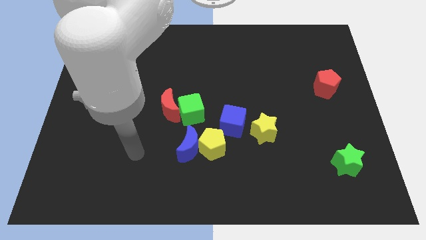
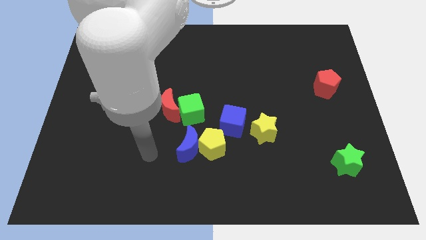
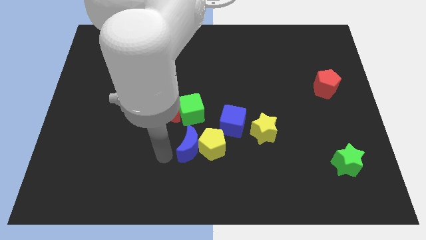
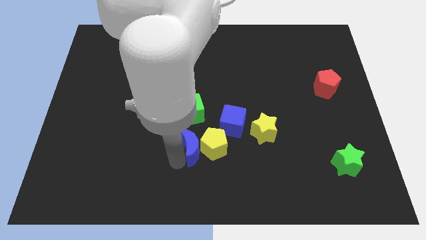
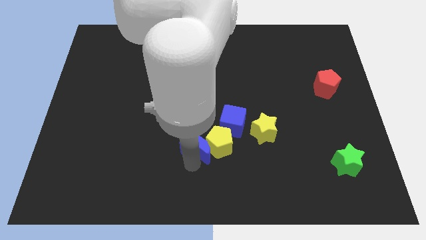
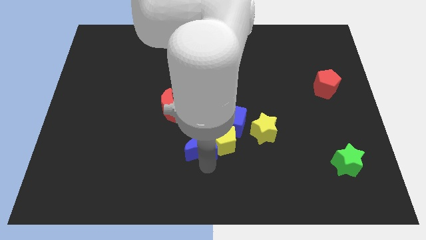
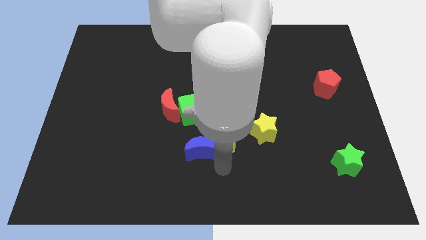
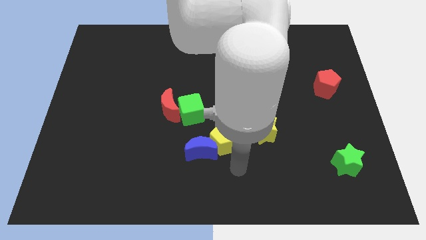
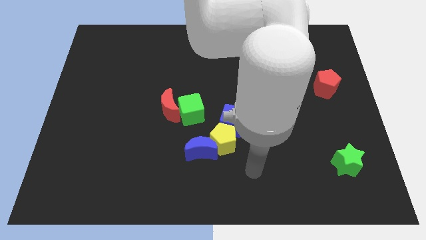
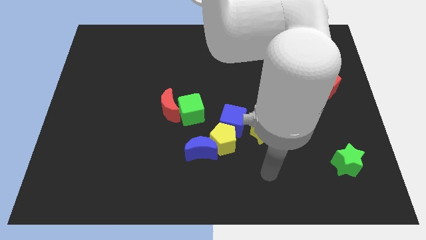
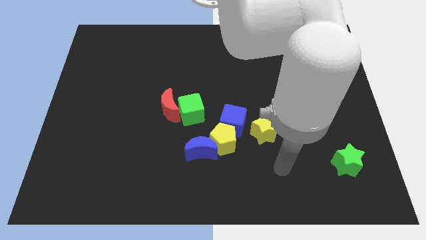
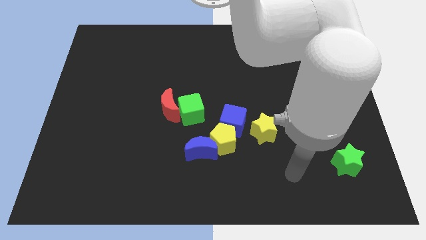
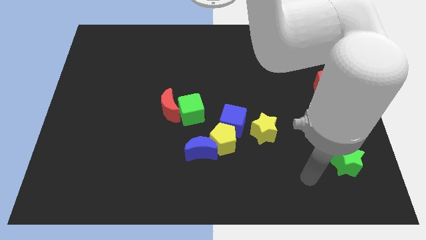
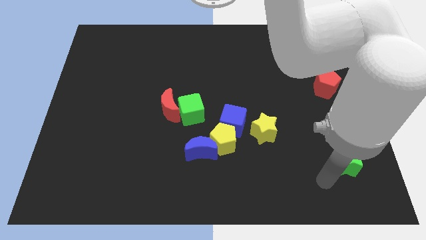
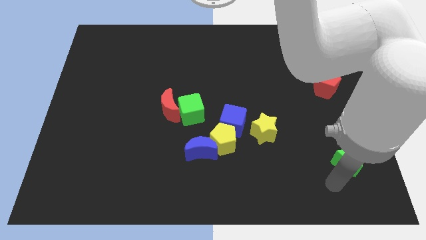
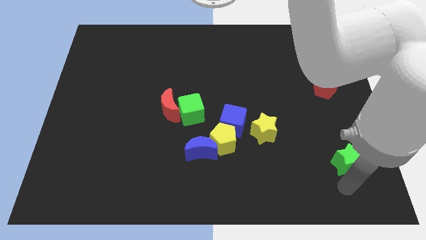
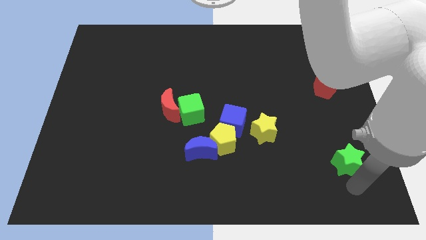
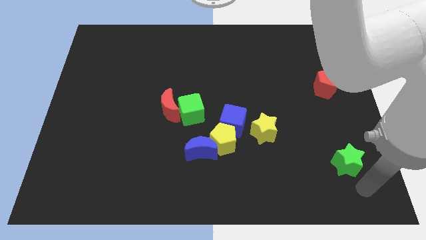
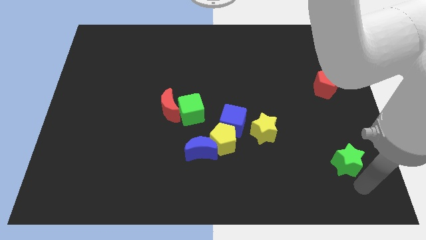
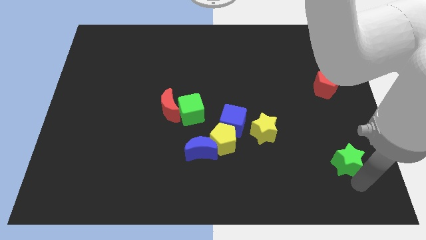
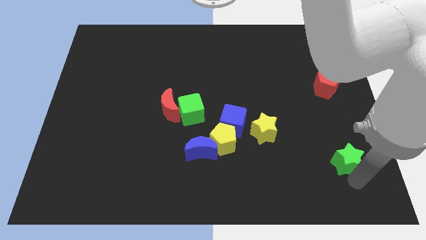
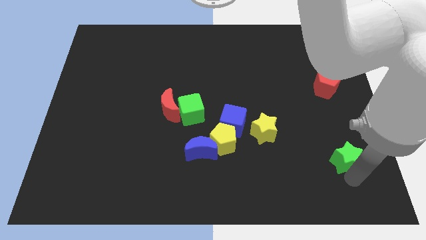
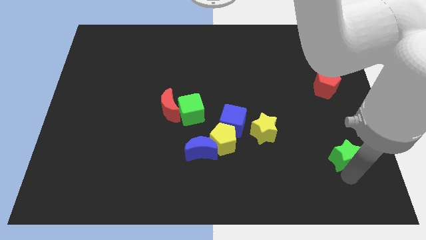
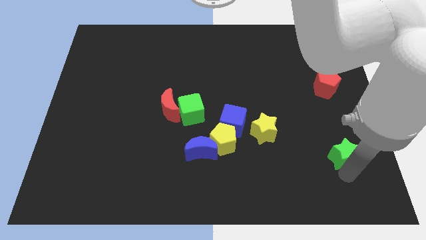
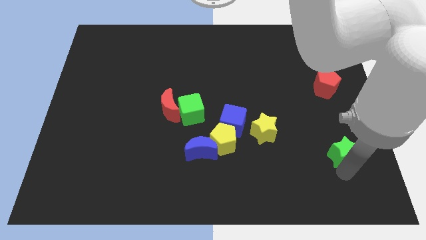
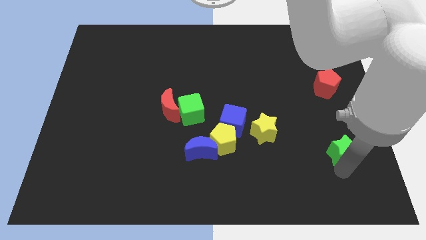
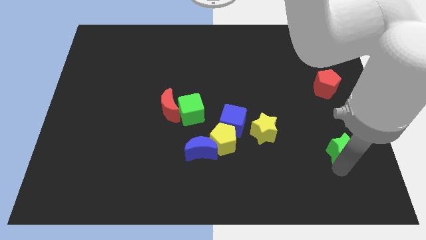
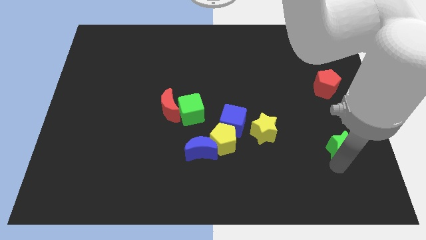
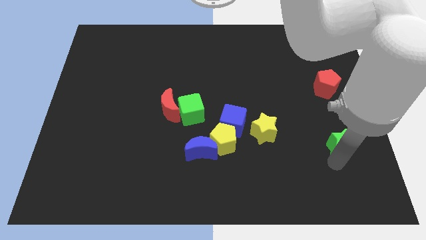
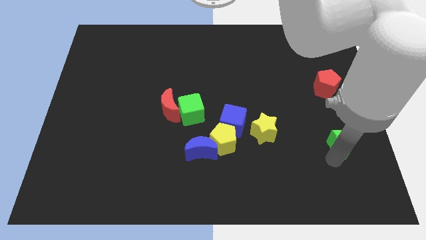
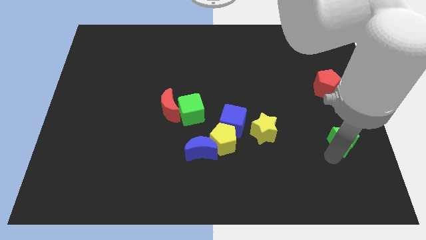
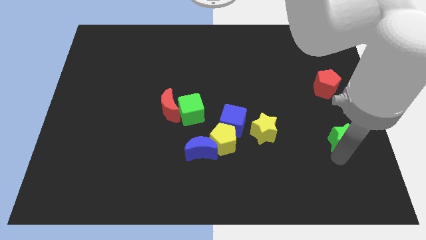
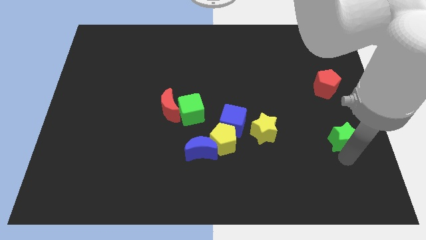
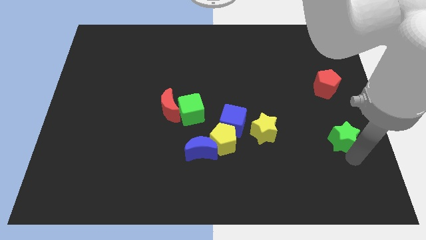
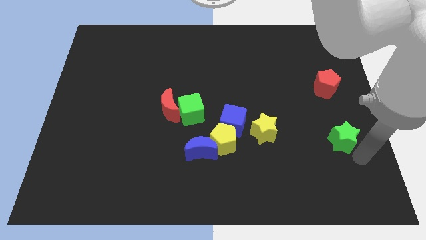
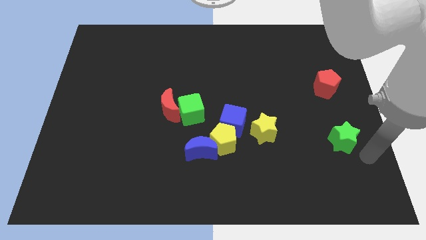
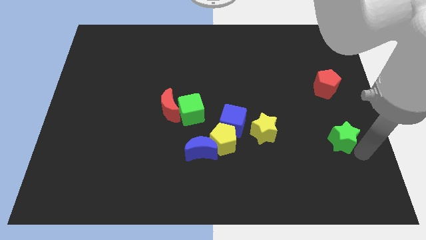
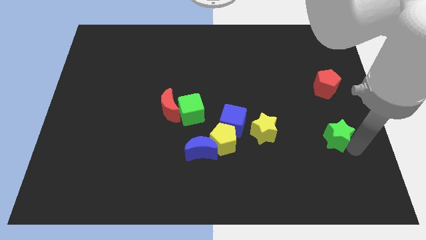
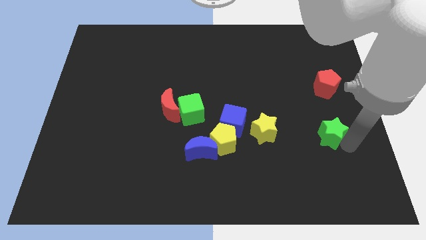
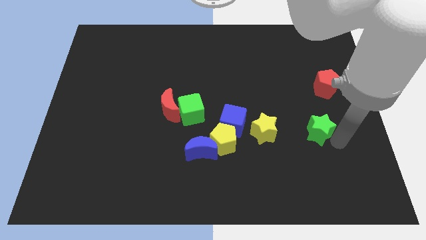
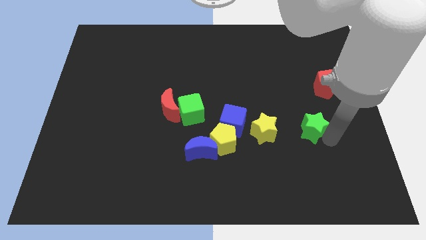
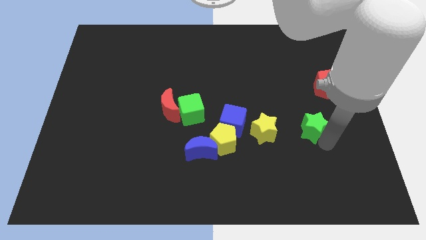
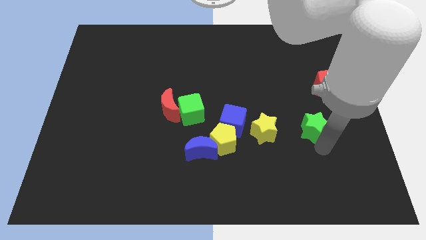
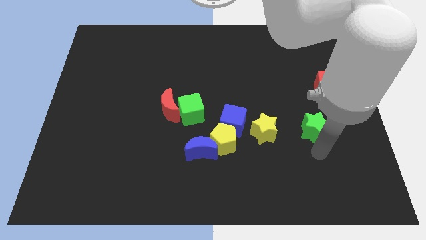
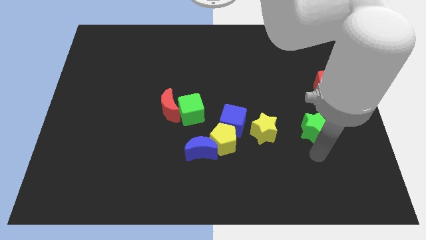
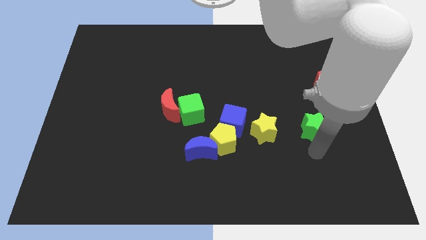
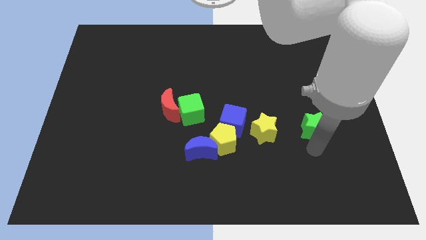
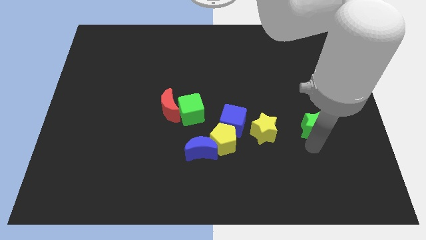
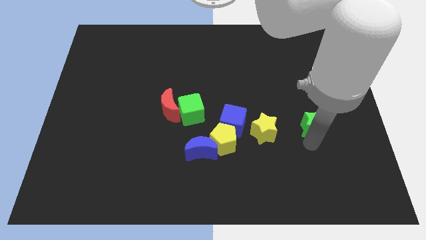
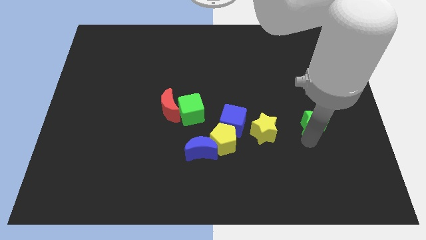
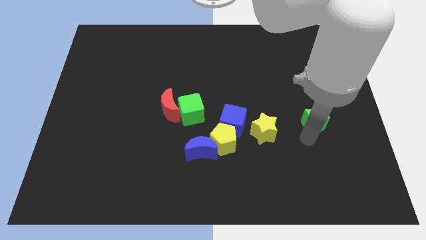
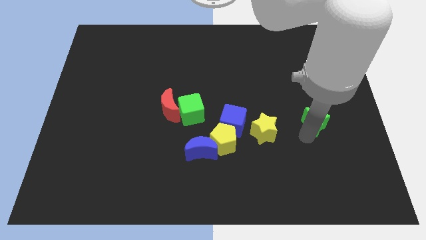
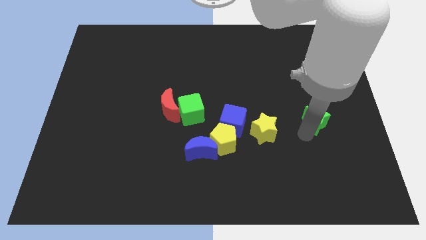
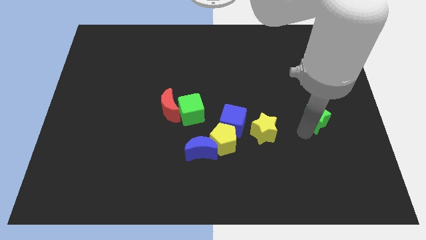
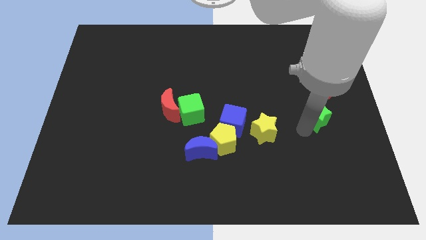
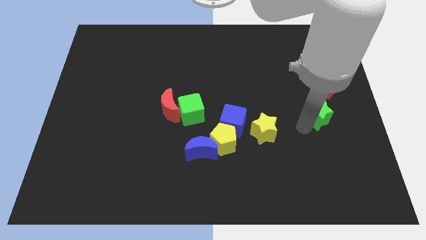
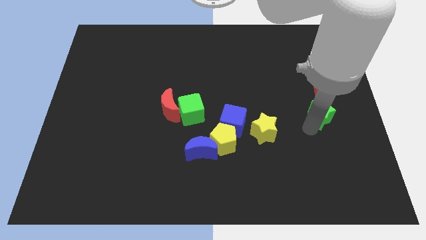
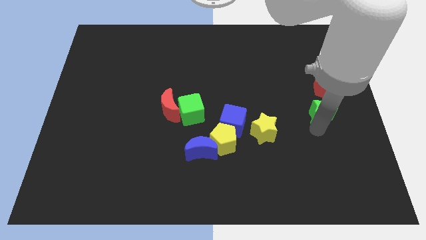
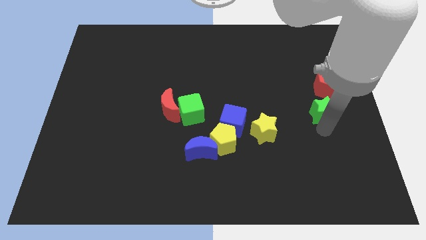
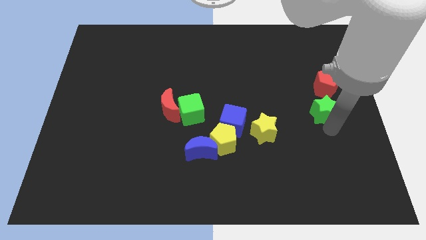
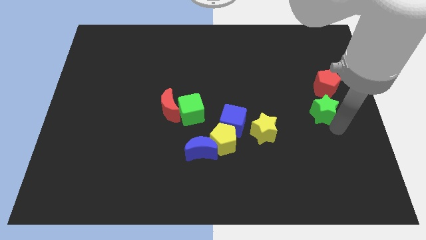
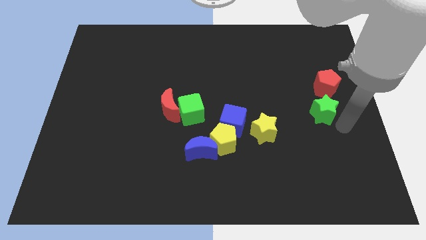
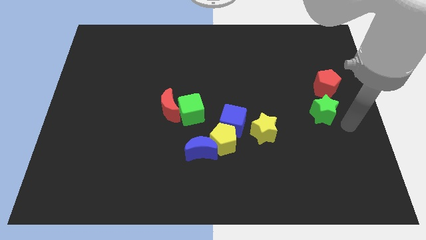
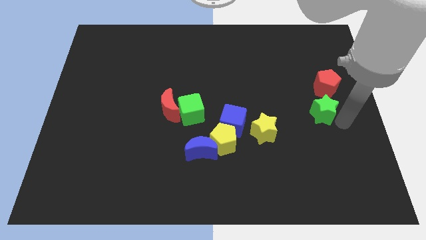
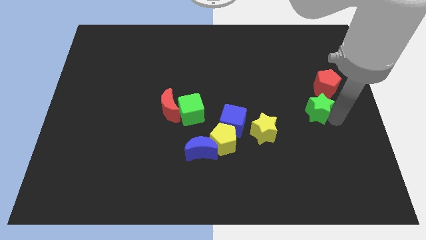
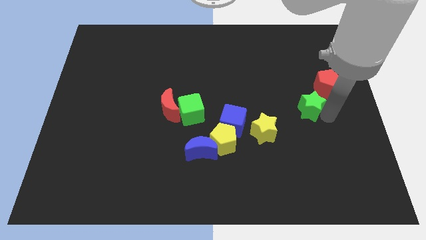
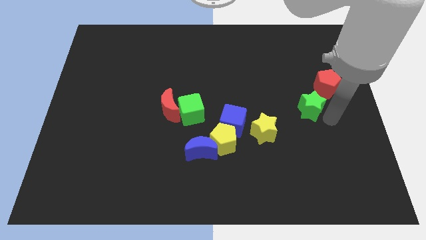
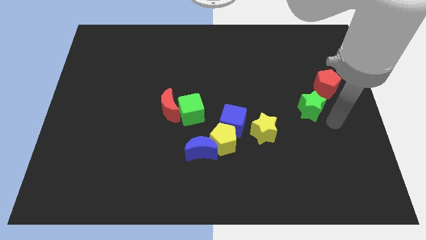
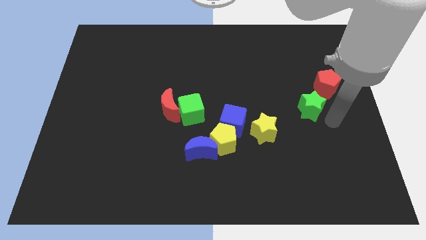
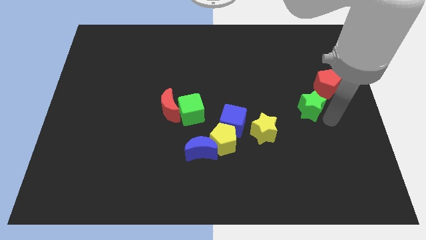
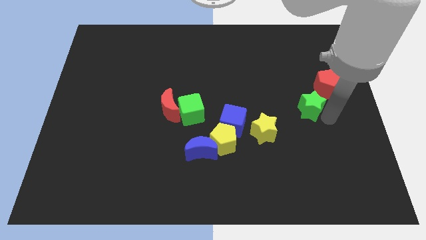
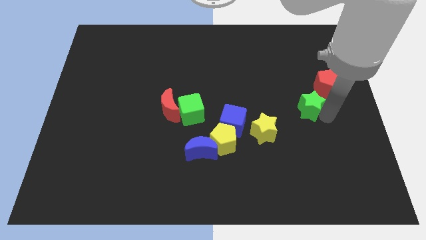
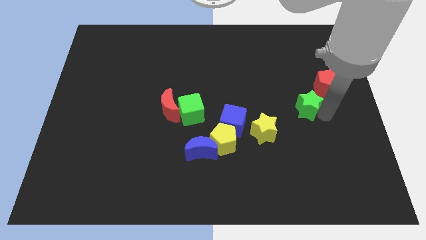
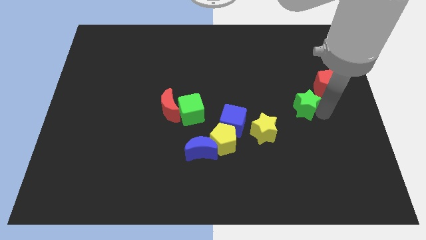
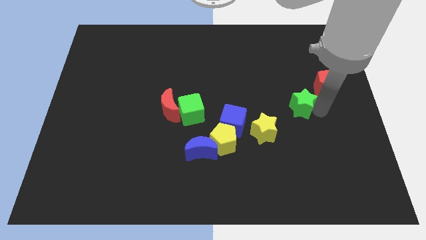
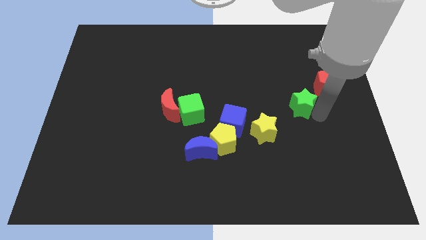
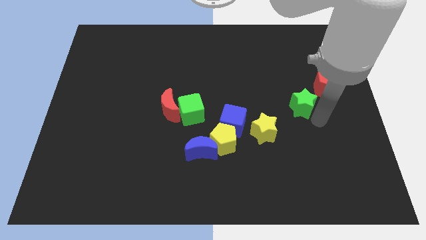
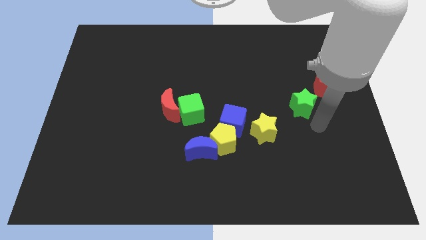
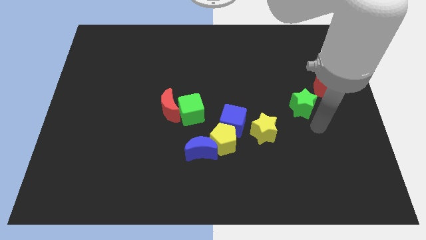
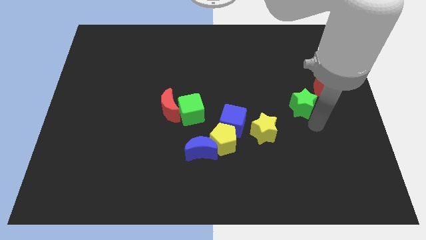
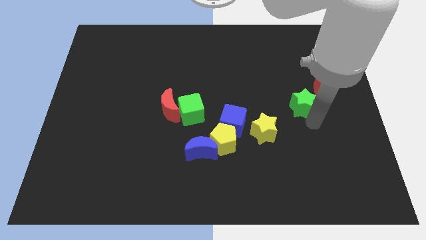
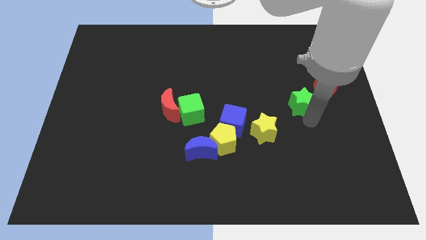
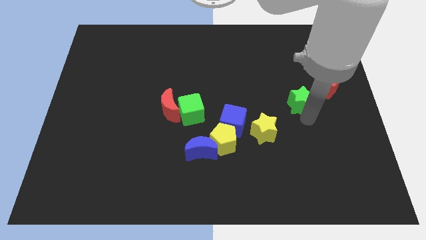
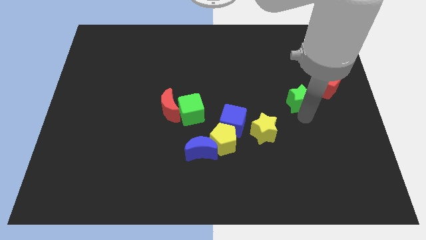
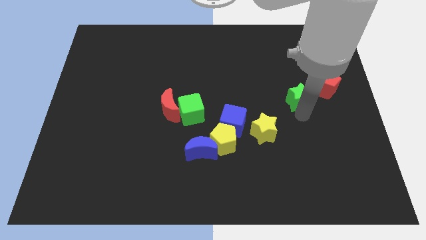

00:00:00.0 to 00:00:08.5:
put the green star left of the red pentagon
